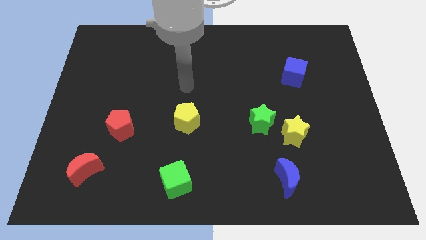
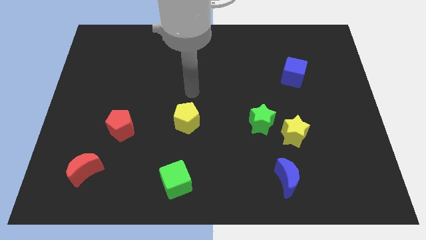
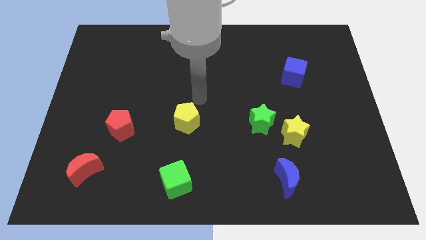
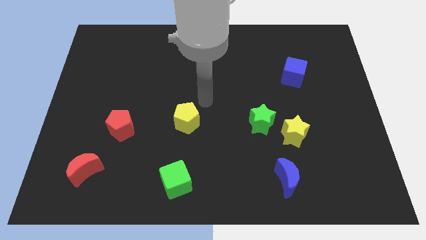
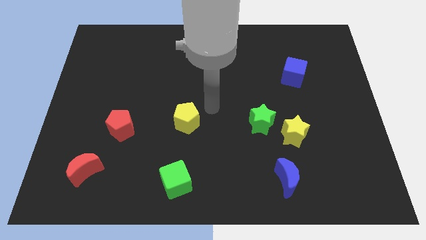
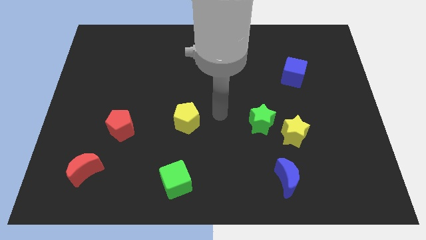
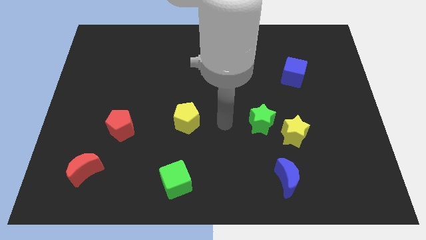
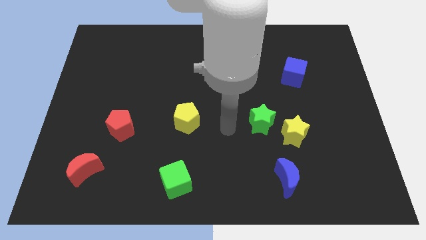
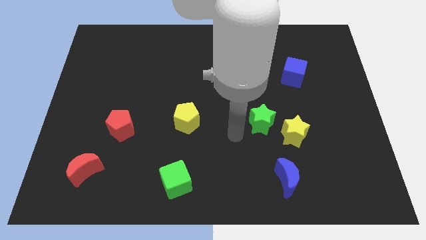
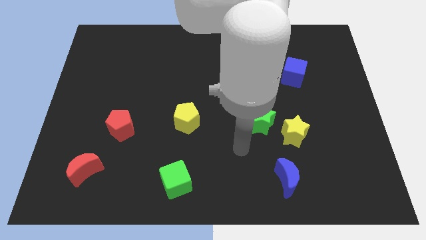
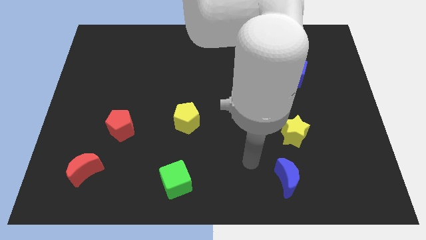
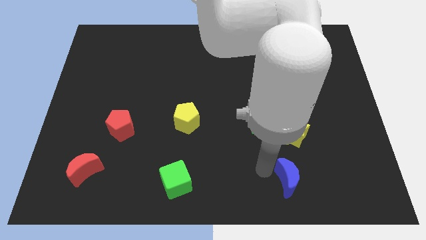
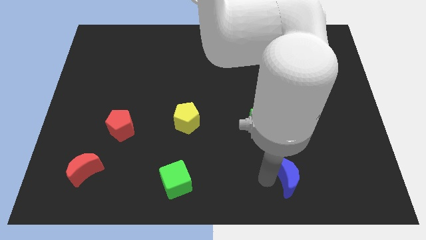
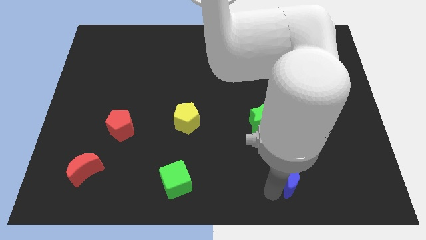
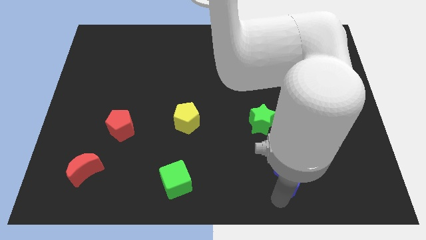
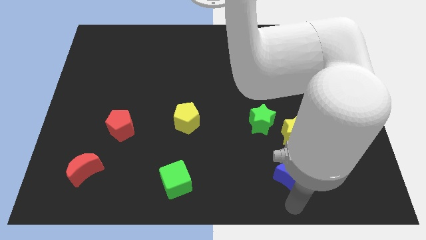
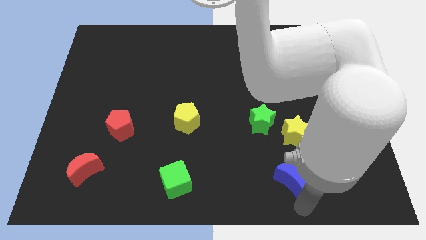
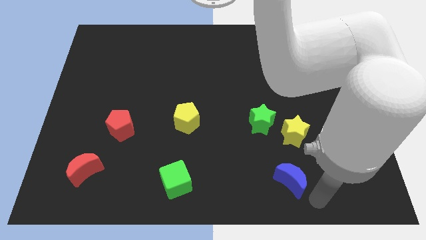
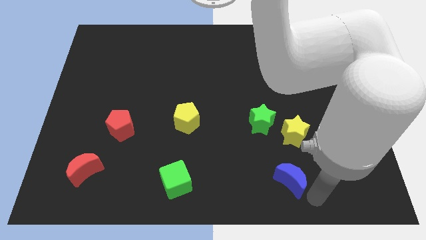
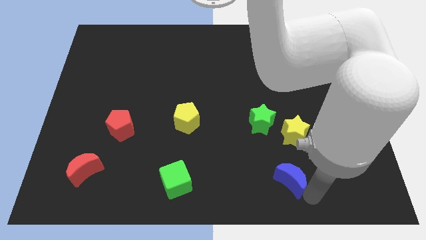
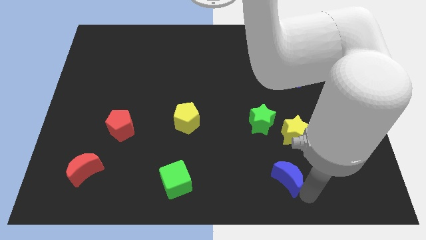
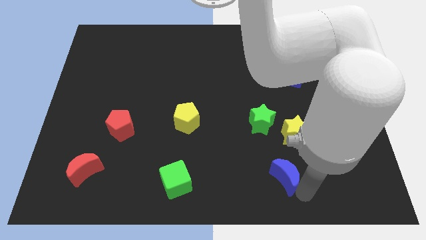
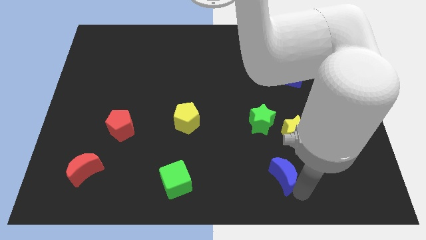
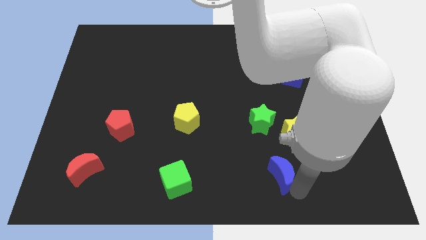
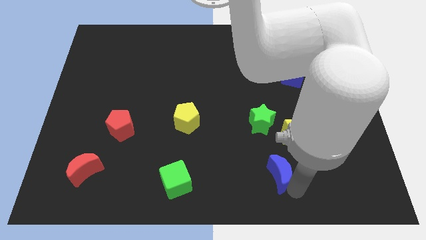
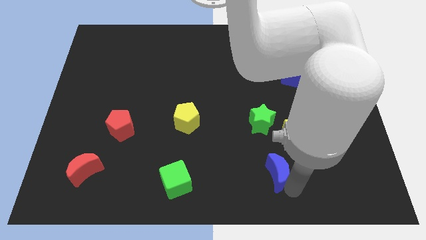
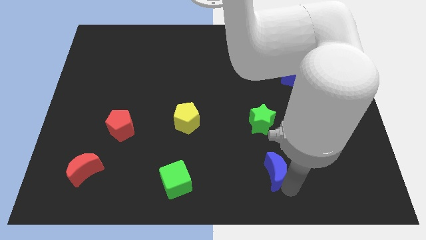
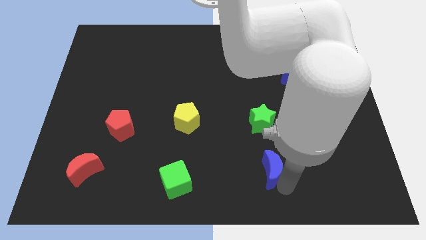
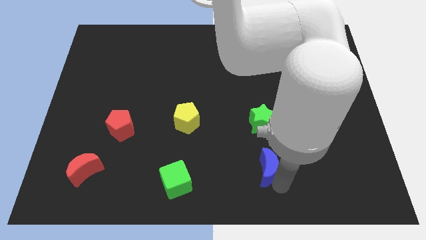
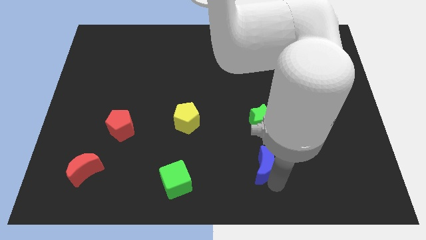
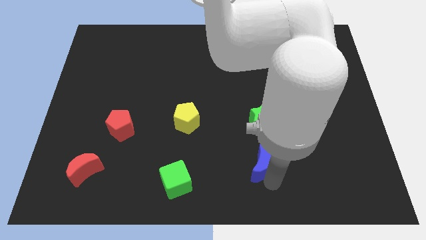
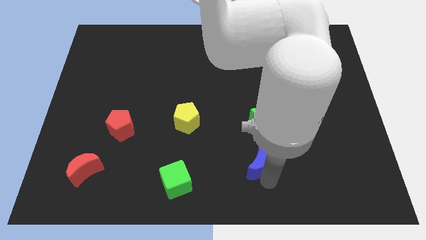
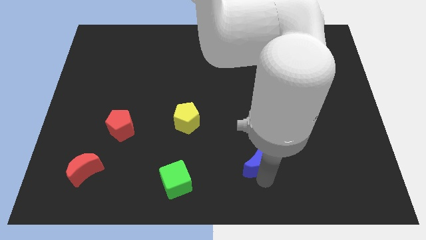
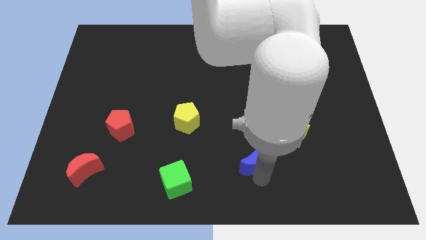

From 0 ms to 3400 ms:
slightly move the blue moon diagonally upwards and left

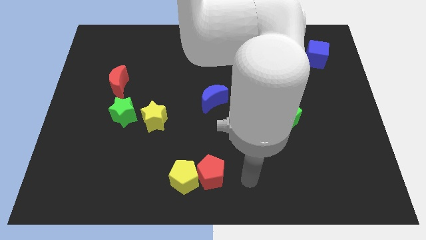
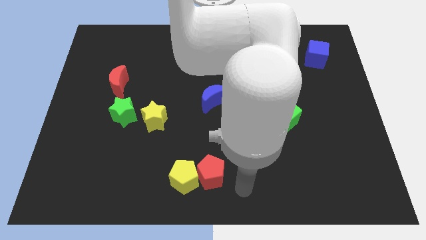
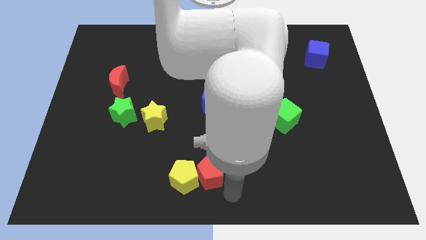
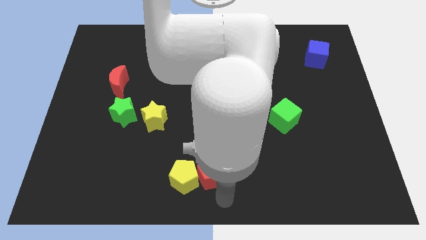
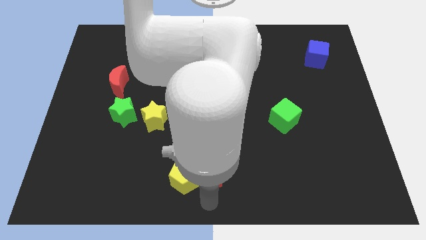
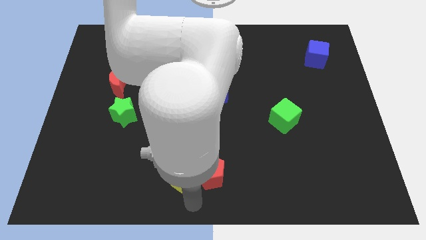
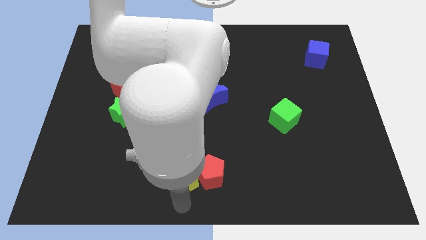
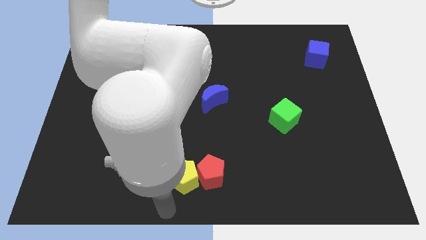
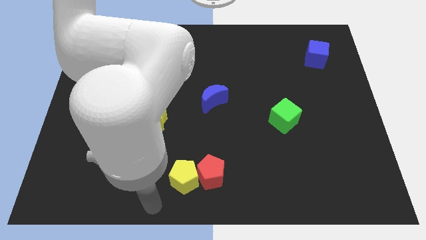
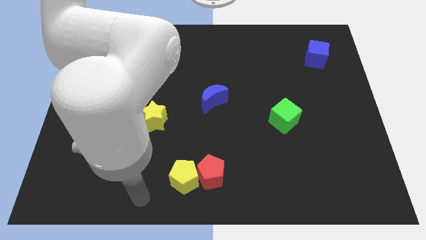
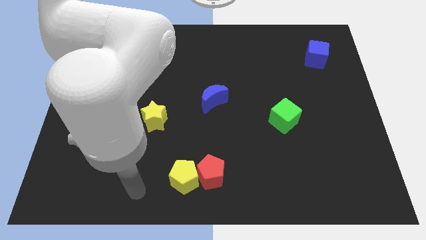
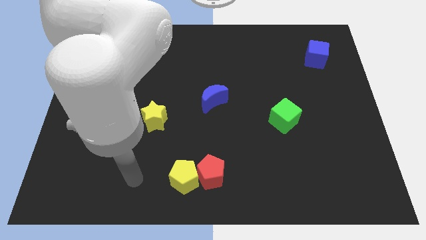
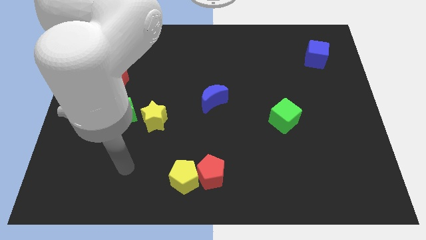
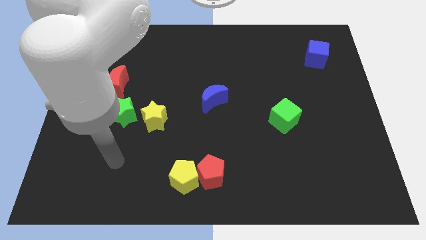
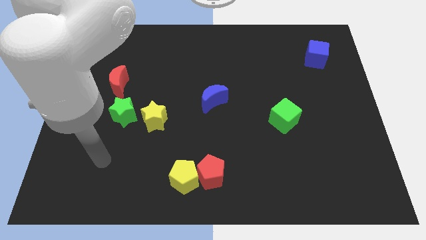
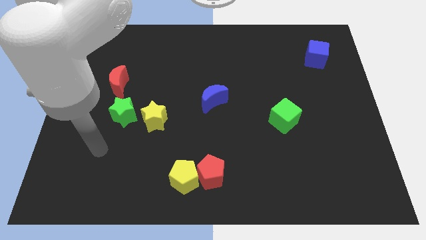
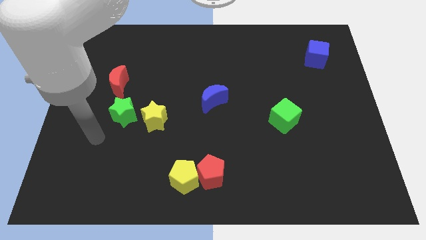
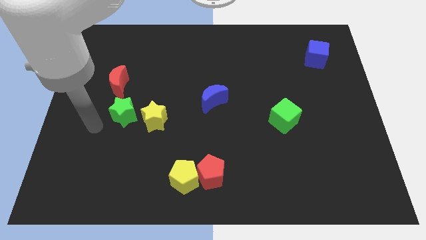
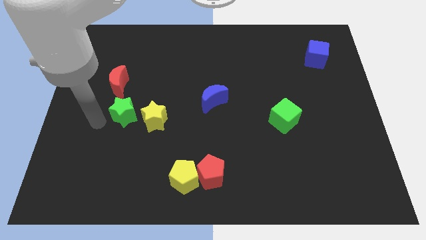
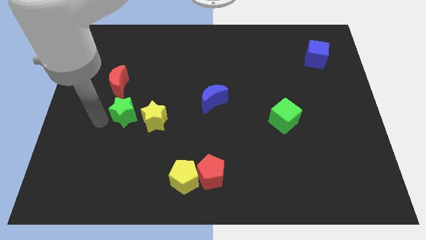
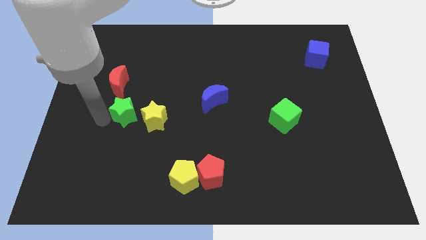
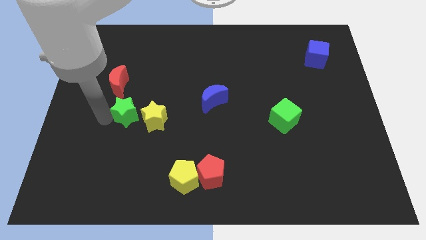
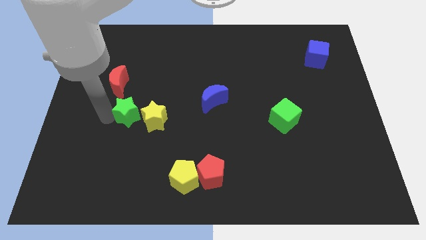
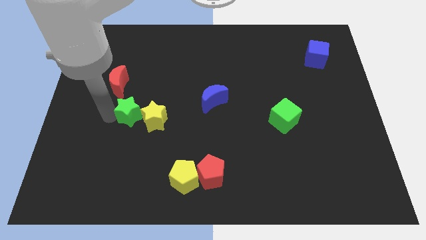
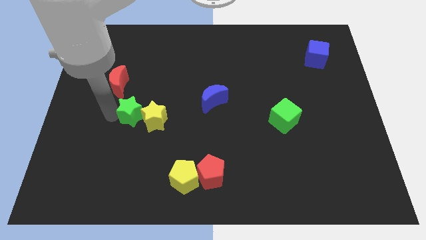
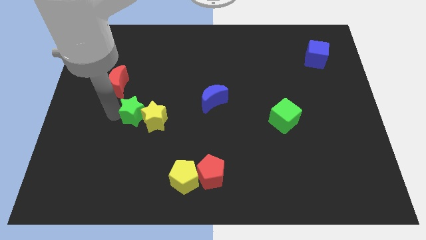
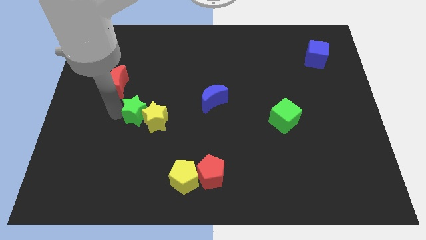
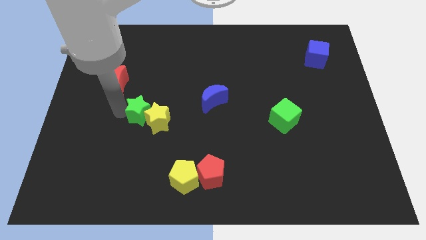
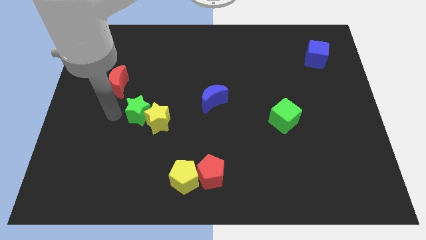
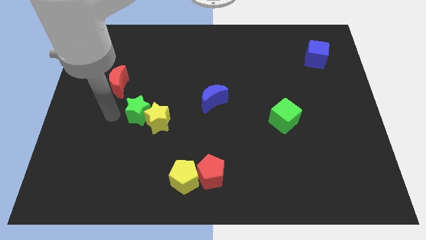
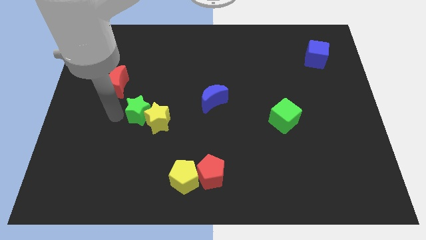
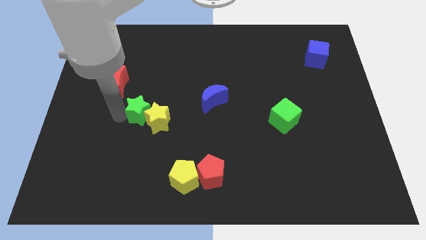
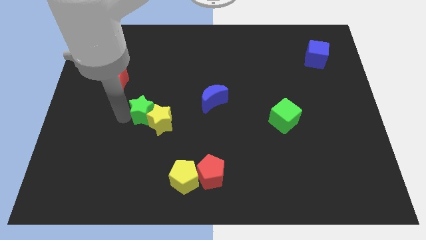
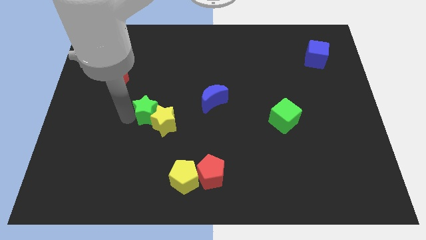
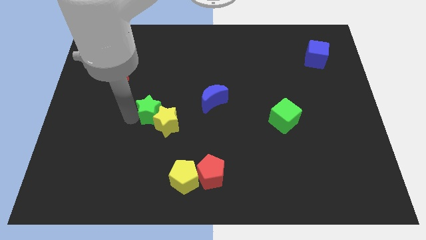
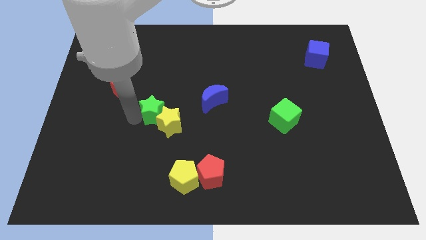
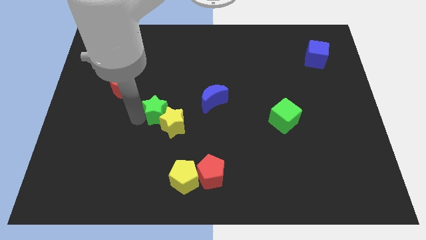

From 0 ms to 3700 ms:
slide the green star slightly right

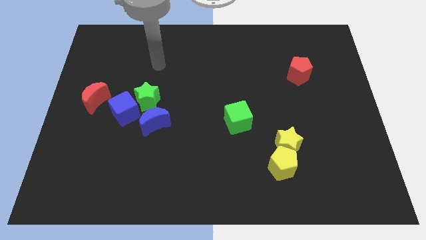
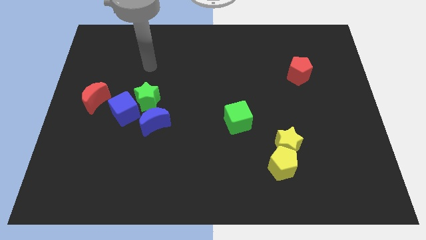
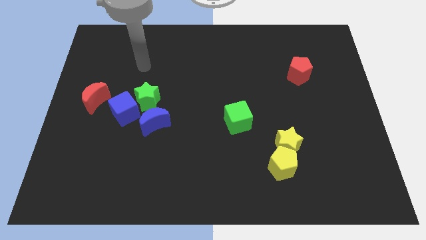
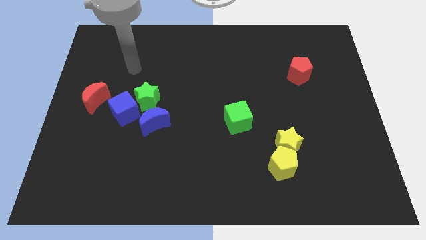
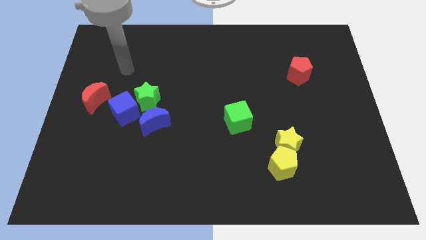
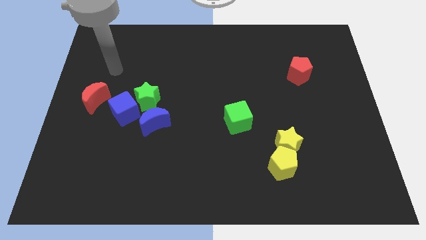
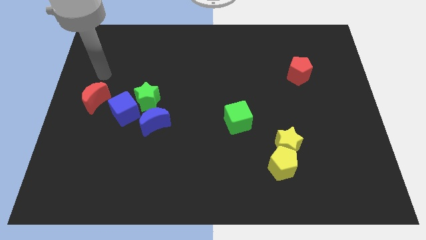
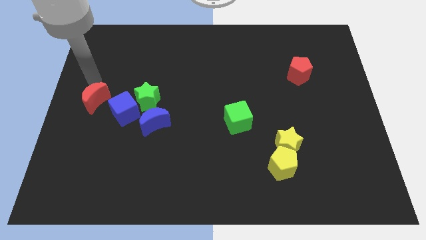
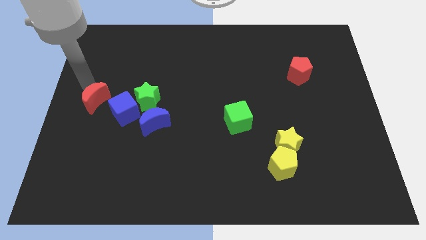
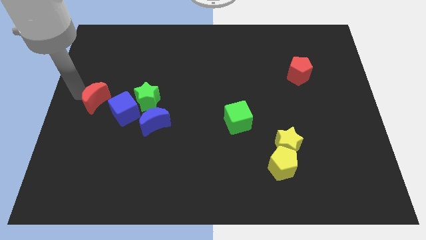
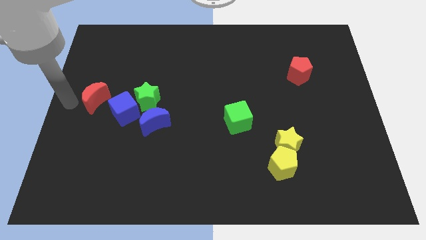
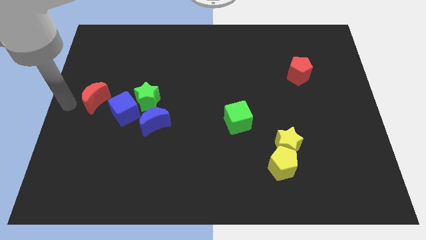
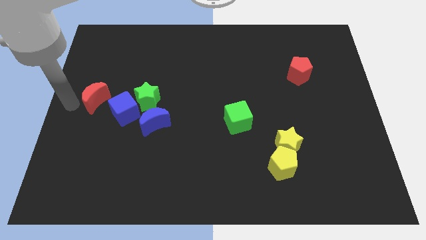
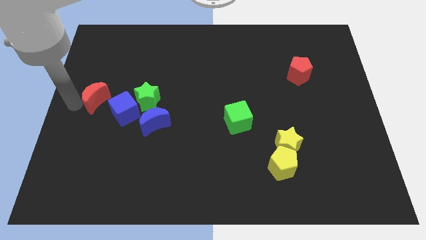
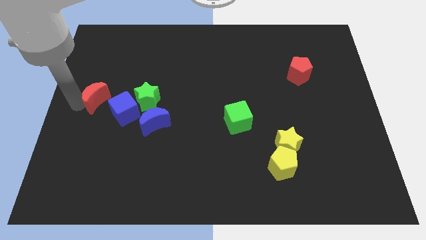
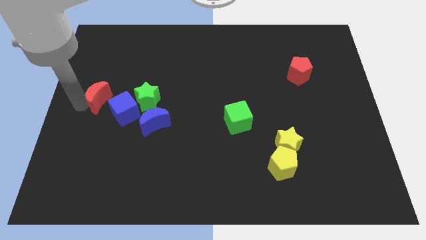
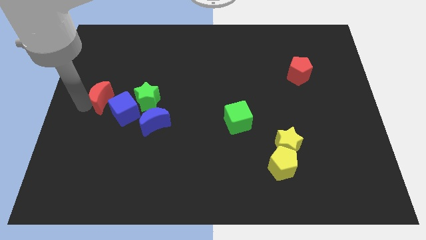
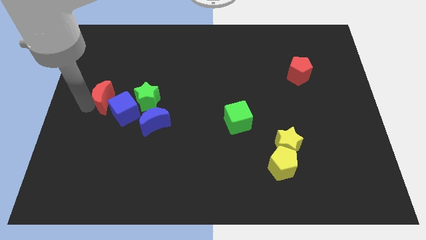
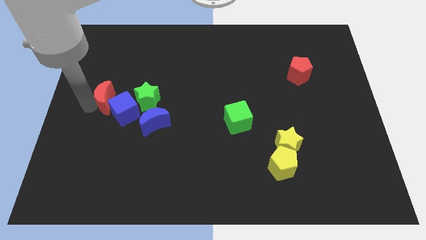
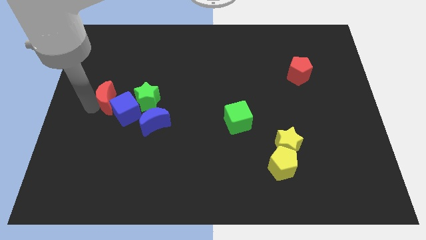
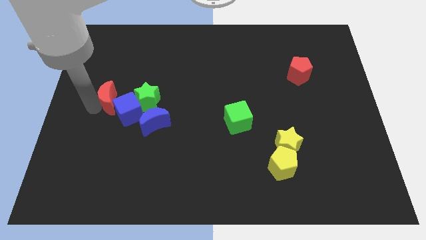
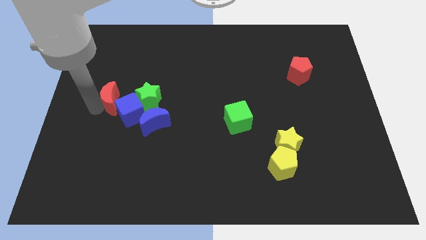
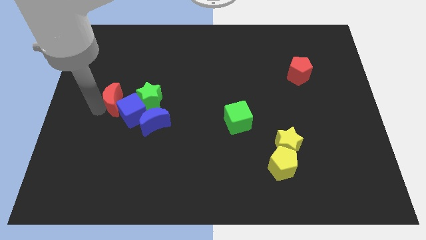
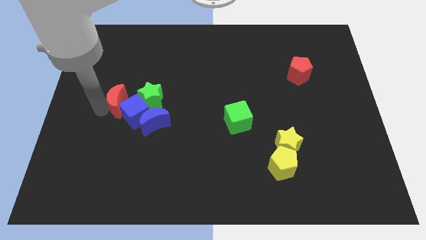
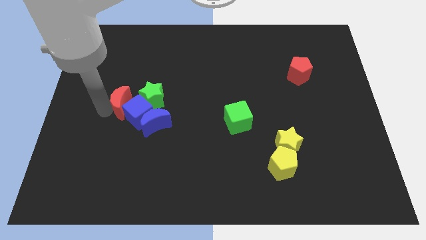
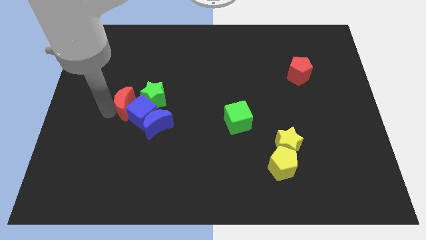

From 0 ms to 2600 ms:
slide the red moon slightly to the right
